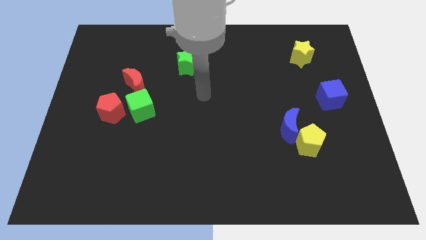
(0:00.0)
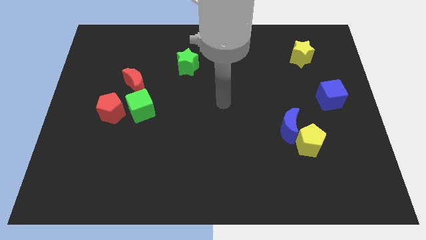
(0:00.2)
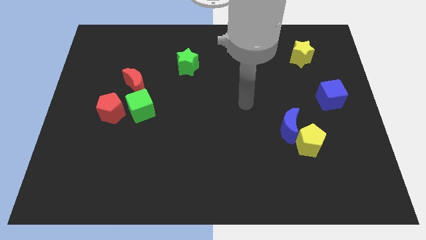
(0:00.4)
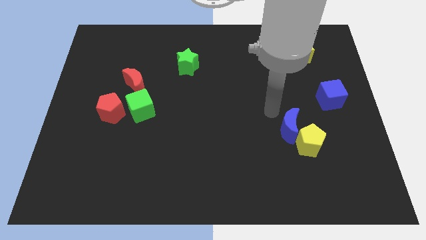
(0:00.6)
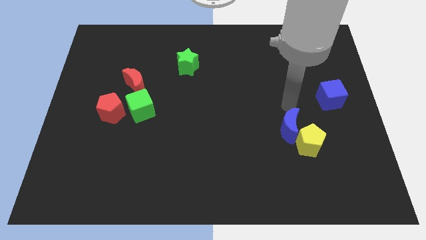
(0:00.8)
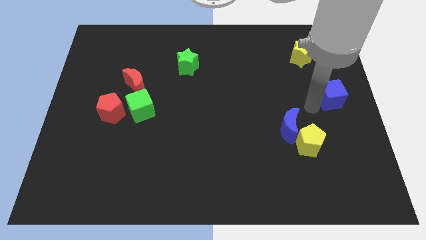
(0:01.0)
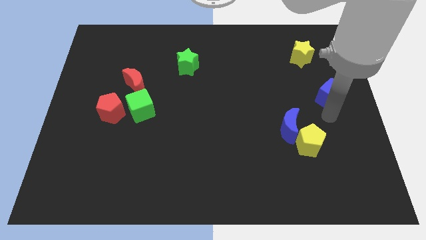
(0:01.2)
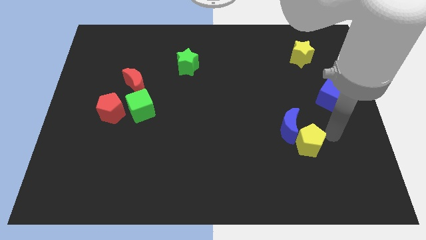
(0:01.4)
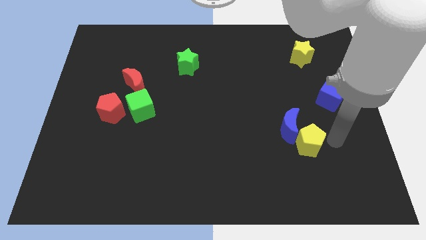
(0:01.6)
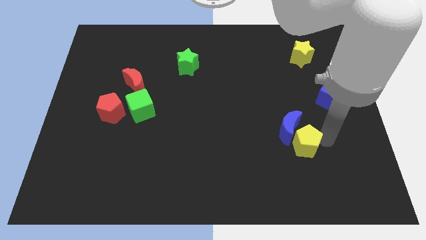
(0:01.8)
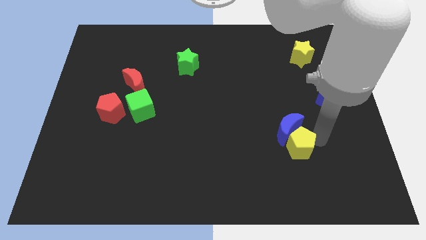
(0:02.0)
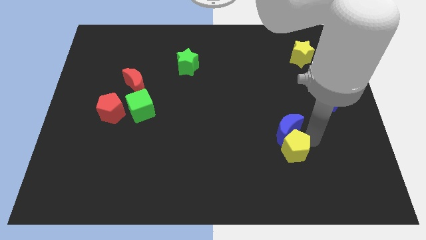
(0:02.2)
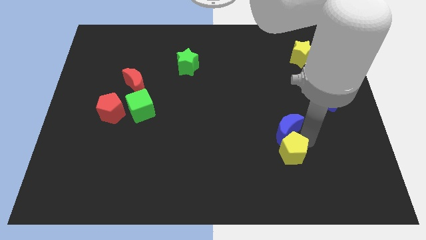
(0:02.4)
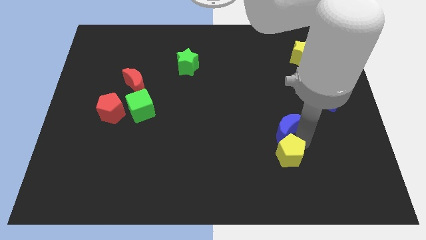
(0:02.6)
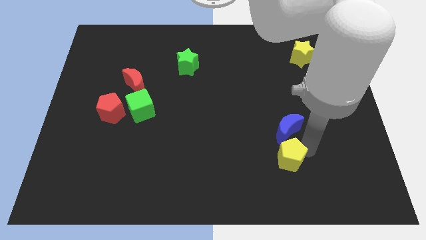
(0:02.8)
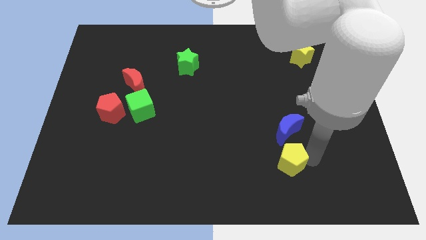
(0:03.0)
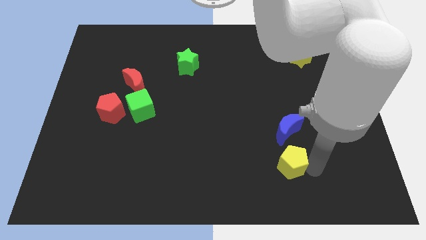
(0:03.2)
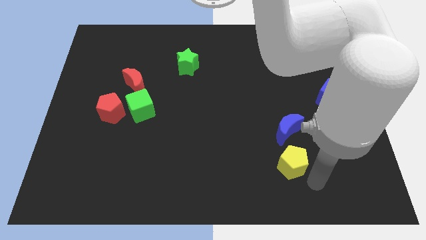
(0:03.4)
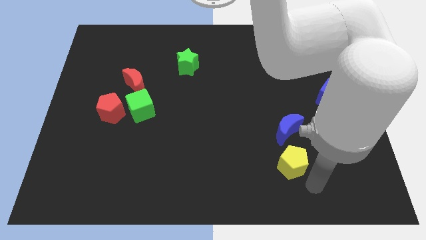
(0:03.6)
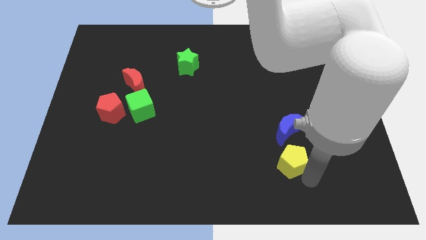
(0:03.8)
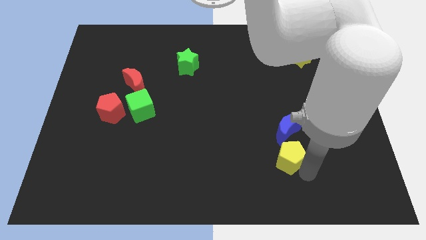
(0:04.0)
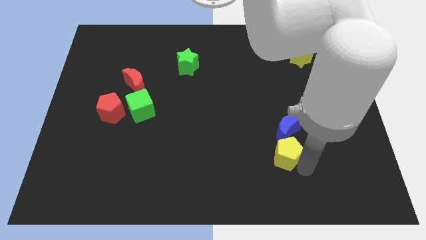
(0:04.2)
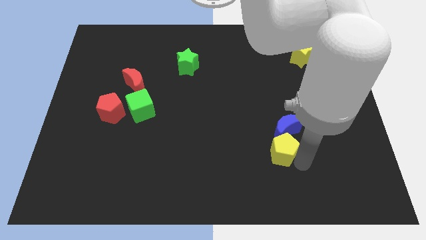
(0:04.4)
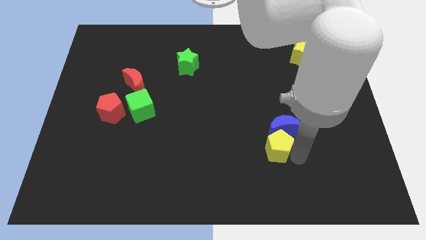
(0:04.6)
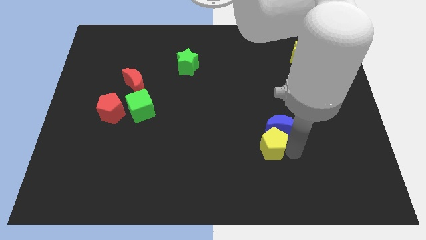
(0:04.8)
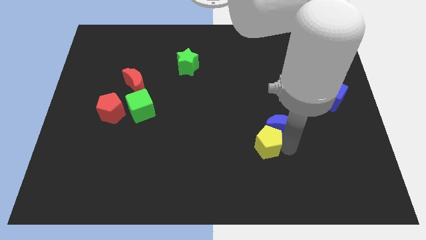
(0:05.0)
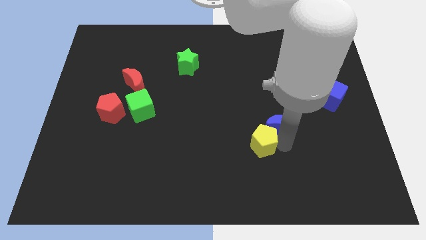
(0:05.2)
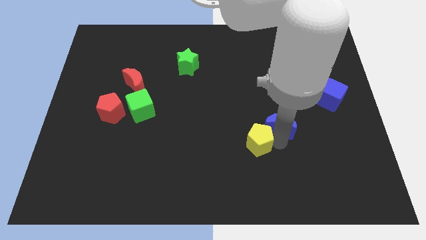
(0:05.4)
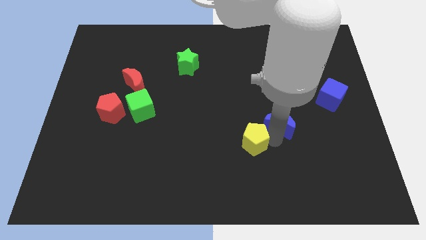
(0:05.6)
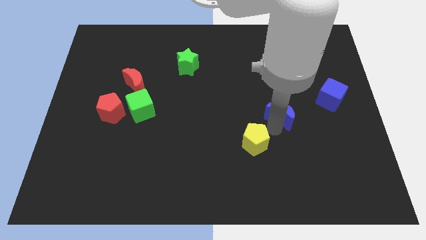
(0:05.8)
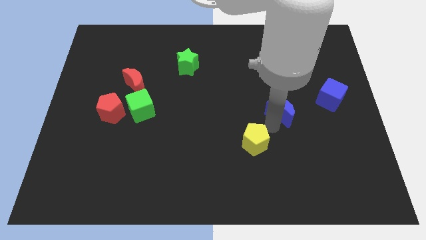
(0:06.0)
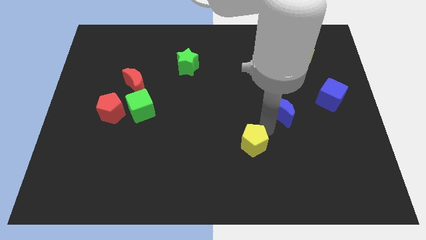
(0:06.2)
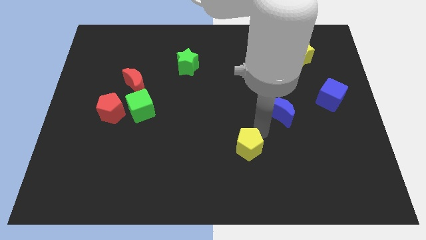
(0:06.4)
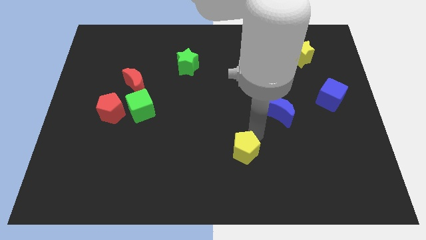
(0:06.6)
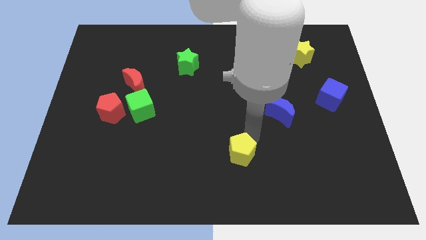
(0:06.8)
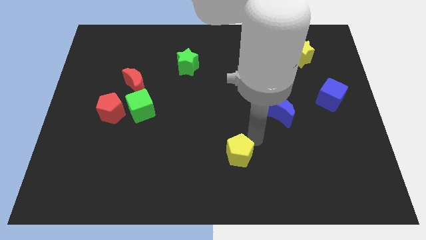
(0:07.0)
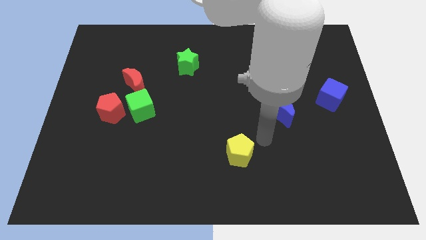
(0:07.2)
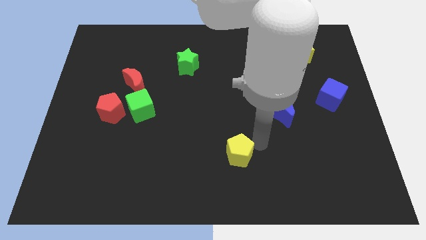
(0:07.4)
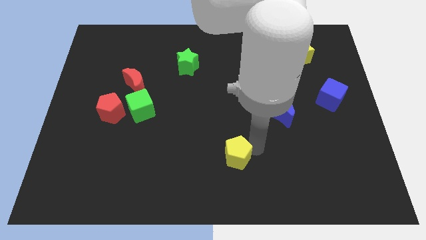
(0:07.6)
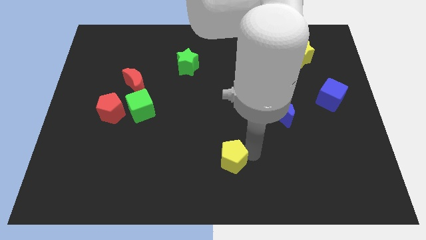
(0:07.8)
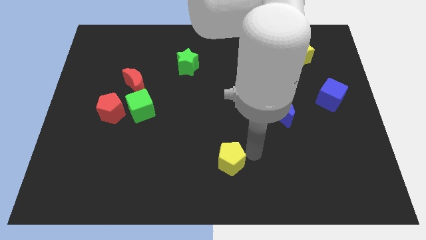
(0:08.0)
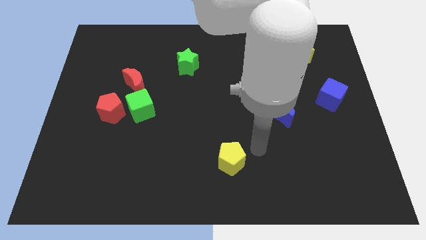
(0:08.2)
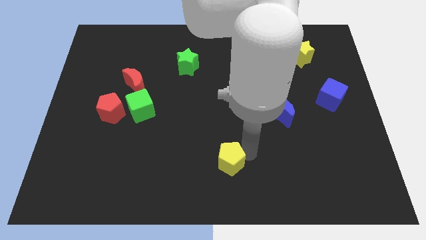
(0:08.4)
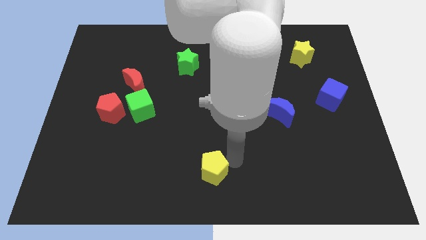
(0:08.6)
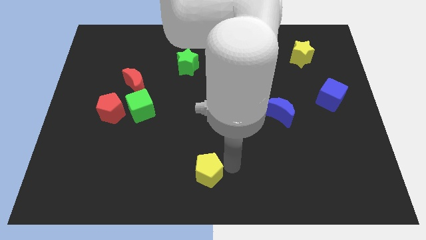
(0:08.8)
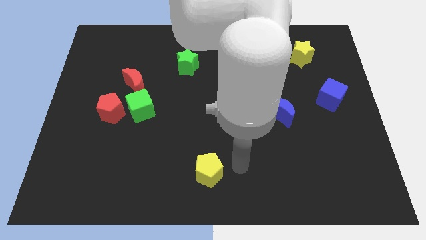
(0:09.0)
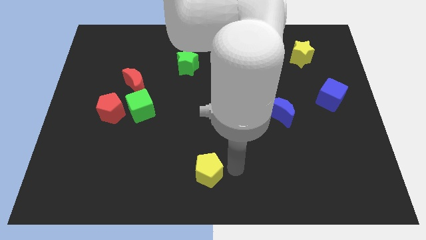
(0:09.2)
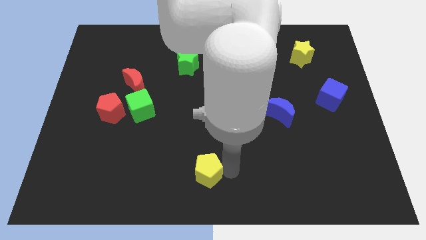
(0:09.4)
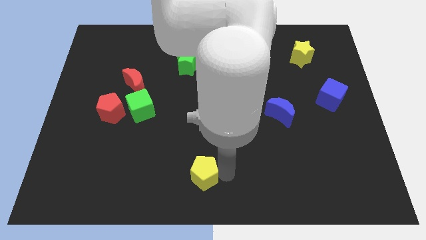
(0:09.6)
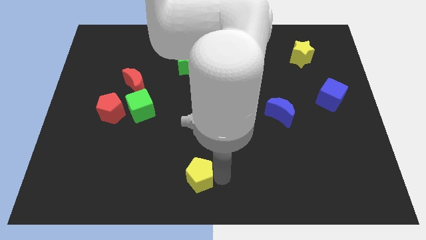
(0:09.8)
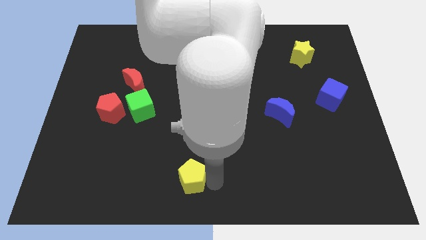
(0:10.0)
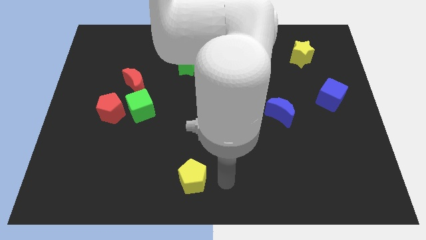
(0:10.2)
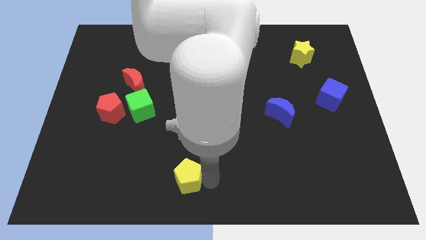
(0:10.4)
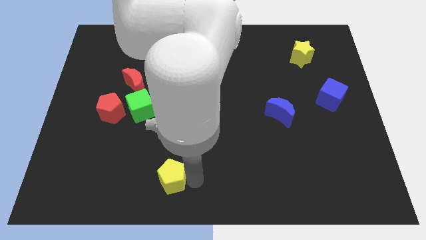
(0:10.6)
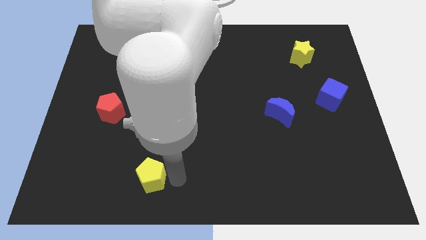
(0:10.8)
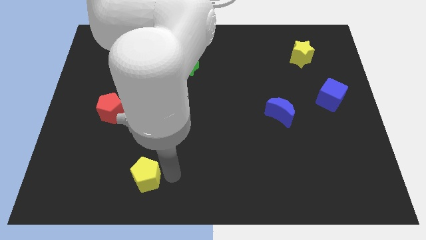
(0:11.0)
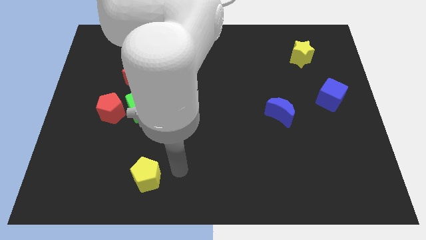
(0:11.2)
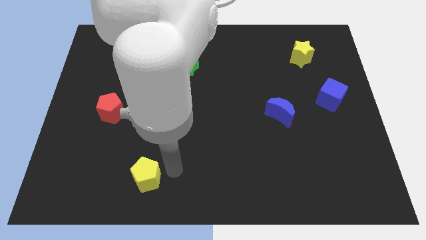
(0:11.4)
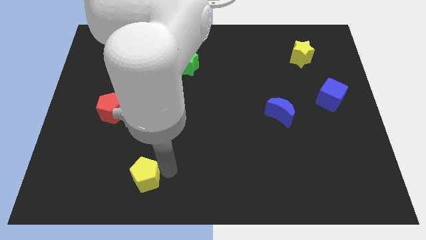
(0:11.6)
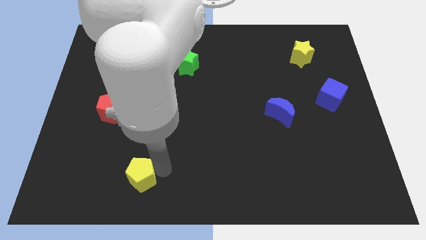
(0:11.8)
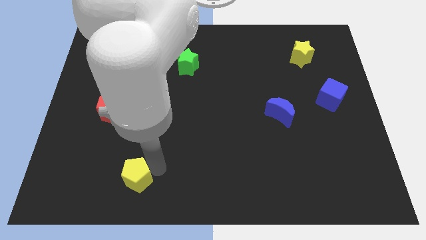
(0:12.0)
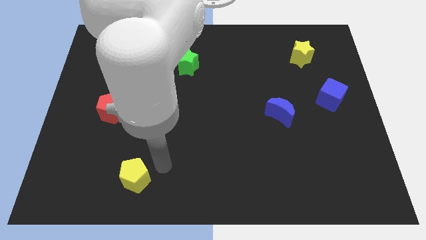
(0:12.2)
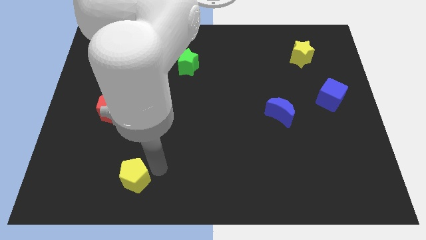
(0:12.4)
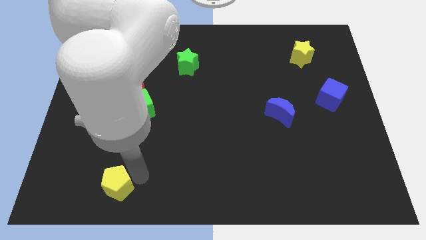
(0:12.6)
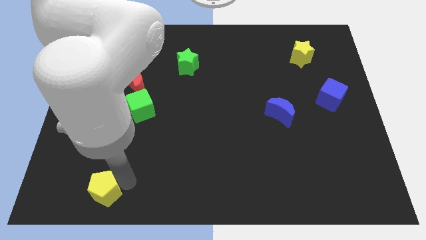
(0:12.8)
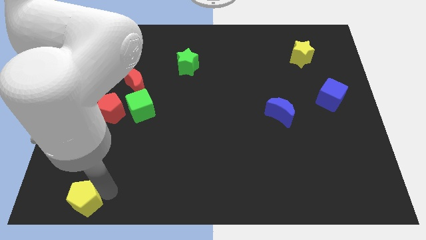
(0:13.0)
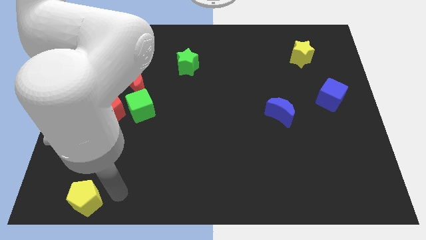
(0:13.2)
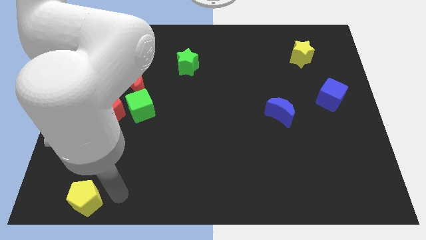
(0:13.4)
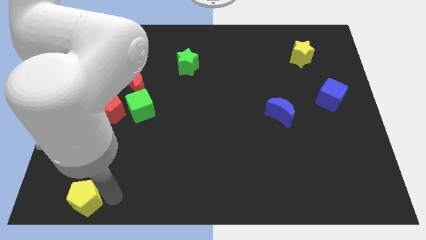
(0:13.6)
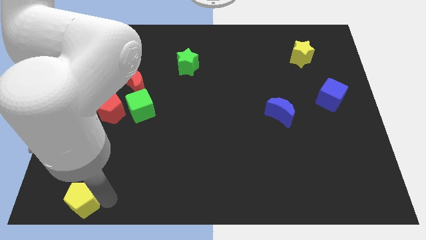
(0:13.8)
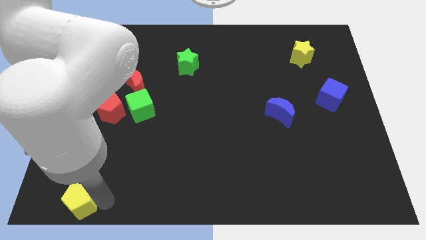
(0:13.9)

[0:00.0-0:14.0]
put the yellow pentagon to the bottom left of the board
